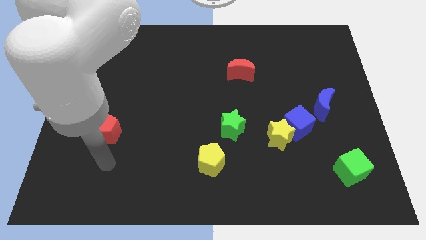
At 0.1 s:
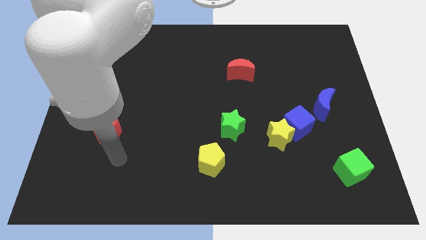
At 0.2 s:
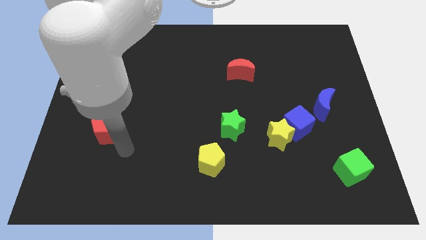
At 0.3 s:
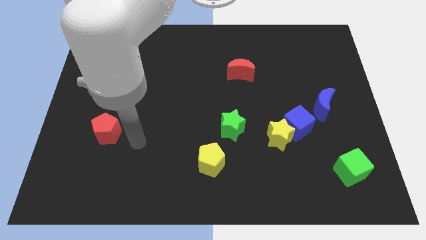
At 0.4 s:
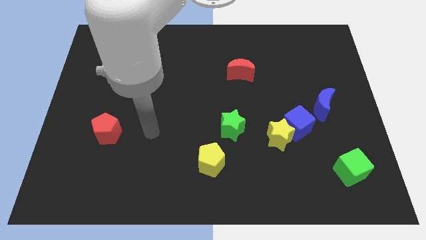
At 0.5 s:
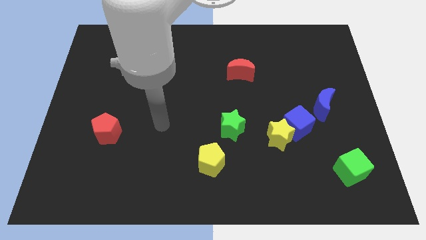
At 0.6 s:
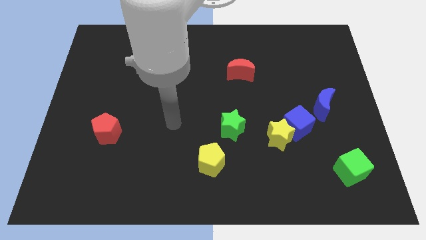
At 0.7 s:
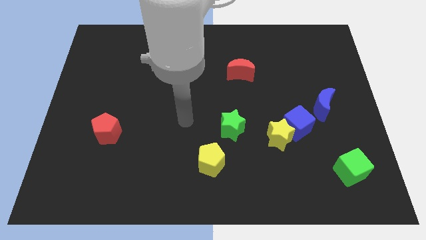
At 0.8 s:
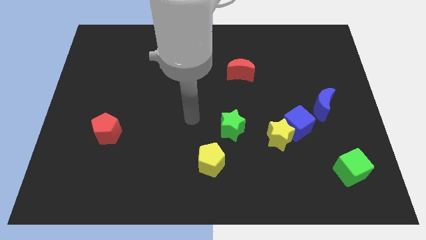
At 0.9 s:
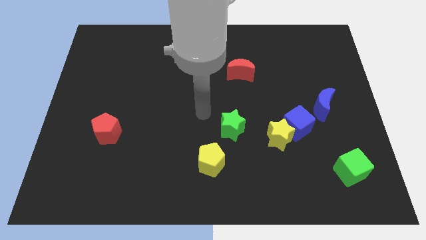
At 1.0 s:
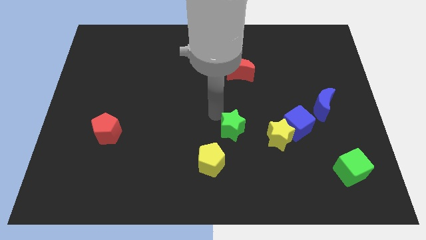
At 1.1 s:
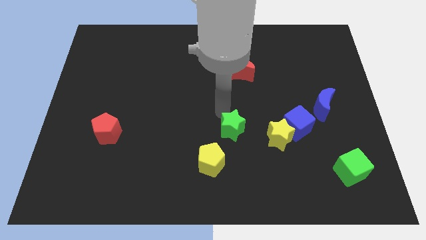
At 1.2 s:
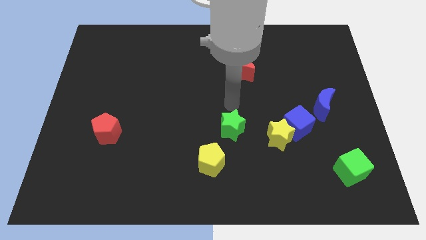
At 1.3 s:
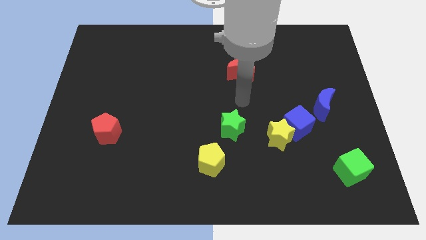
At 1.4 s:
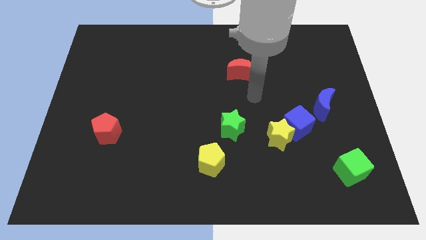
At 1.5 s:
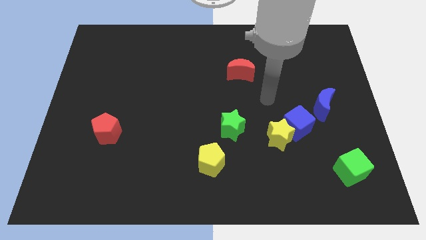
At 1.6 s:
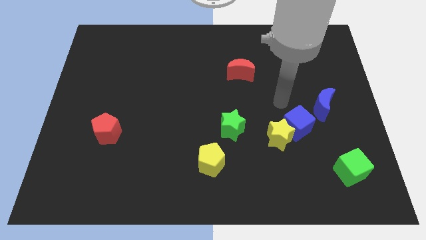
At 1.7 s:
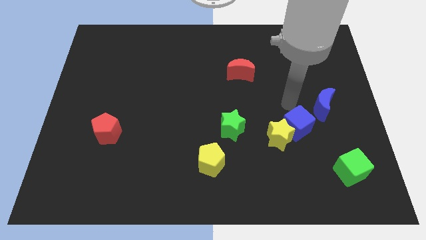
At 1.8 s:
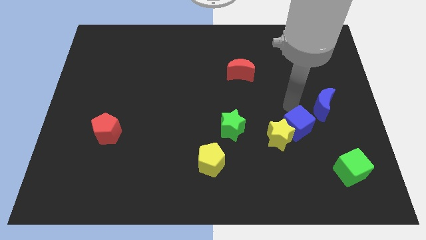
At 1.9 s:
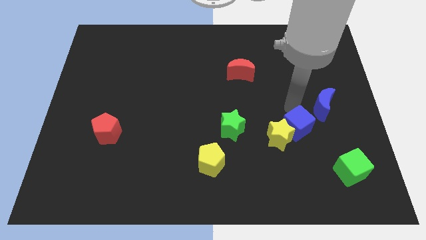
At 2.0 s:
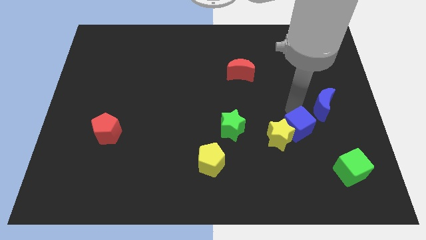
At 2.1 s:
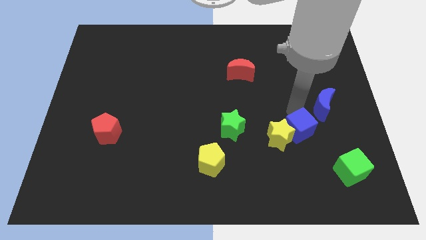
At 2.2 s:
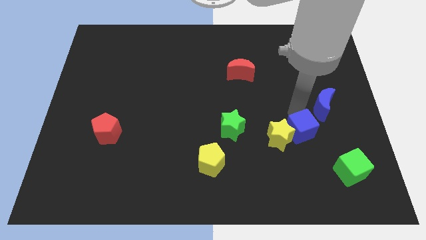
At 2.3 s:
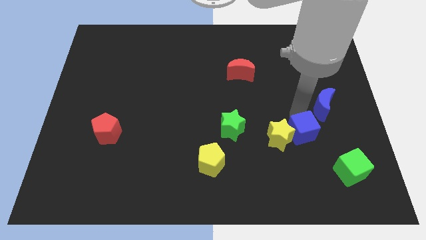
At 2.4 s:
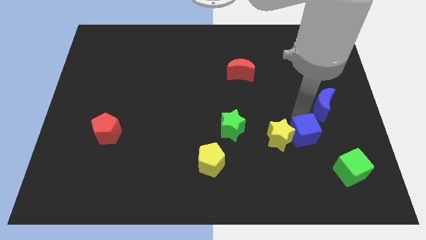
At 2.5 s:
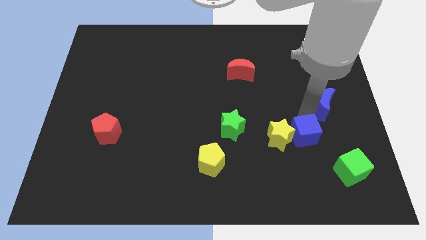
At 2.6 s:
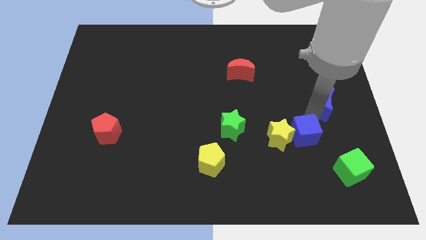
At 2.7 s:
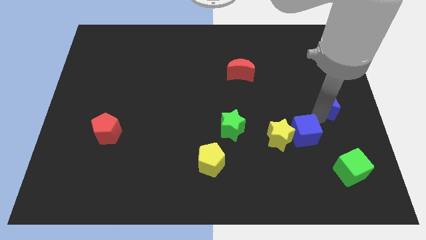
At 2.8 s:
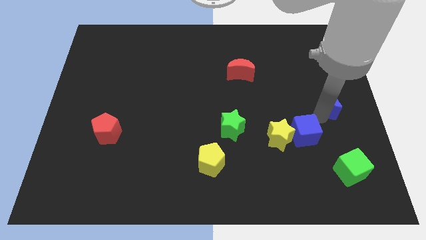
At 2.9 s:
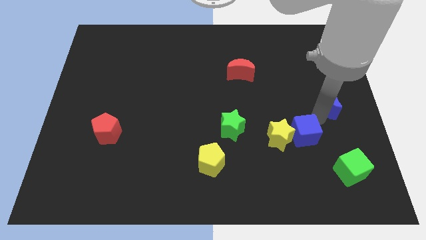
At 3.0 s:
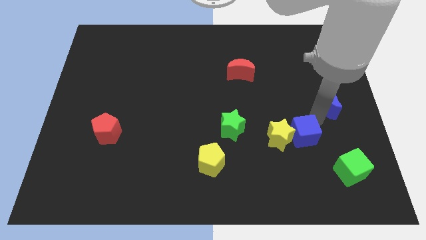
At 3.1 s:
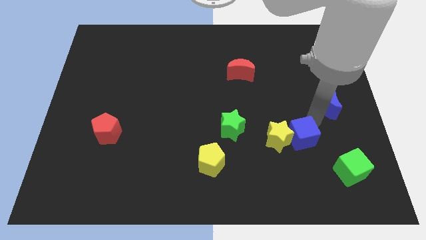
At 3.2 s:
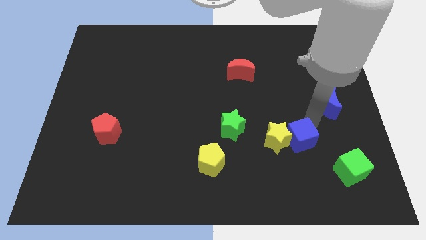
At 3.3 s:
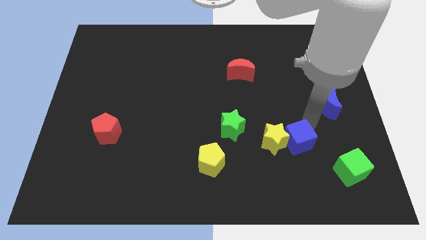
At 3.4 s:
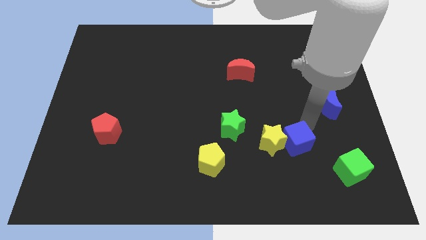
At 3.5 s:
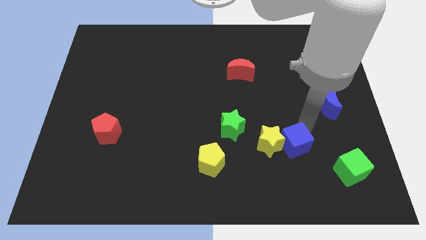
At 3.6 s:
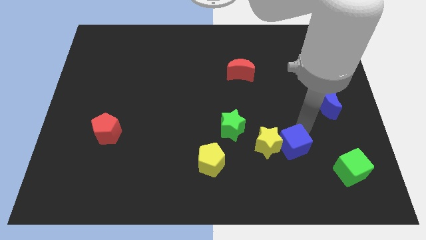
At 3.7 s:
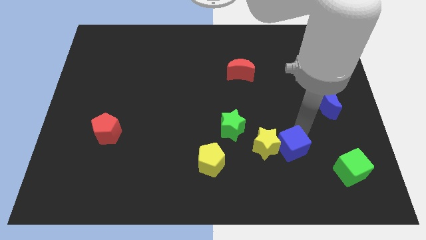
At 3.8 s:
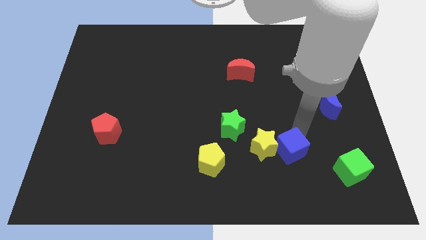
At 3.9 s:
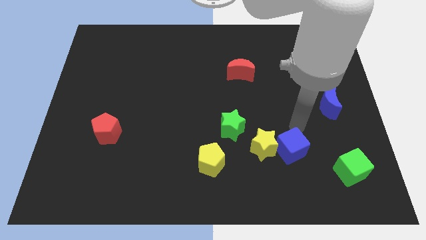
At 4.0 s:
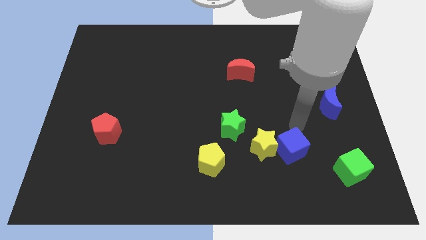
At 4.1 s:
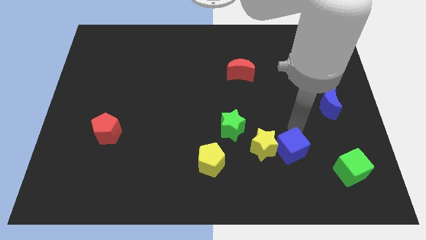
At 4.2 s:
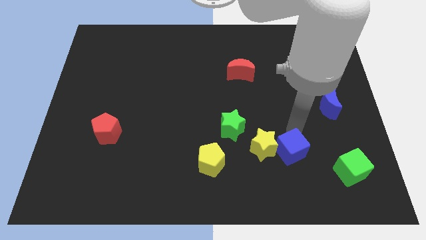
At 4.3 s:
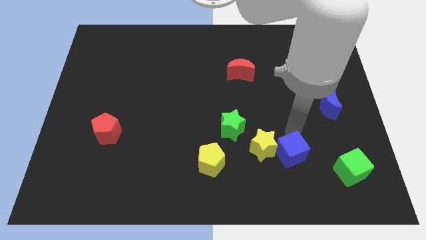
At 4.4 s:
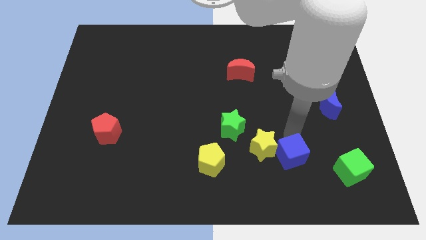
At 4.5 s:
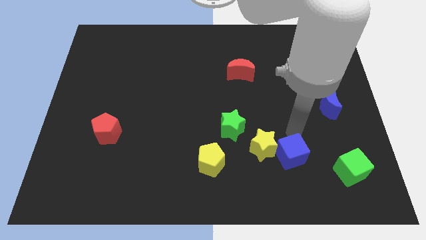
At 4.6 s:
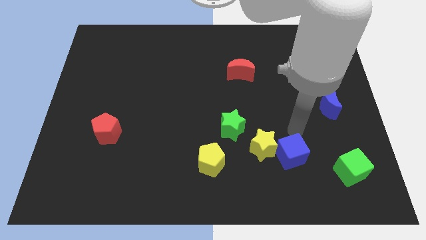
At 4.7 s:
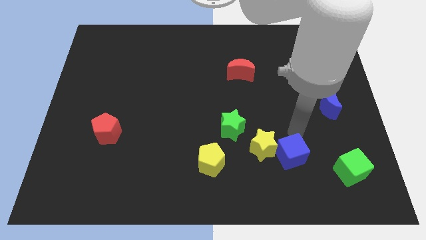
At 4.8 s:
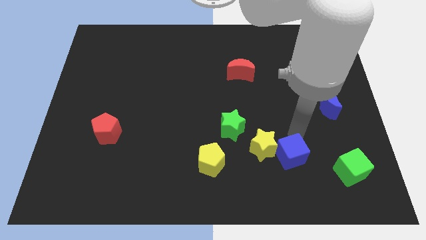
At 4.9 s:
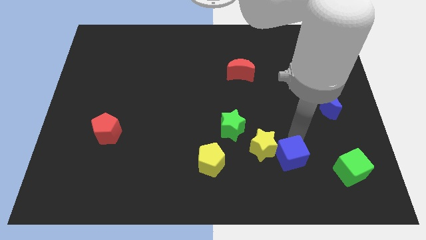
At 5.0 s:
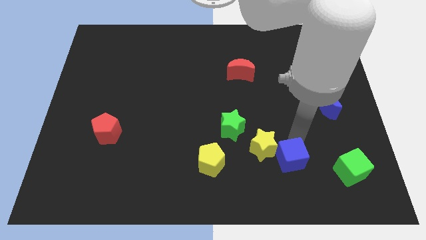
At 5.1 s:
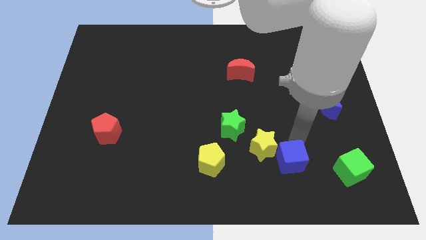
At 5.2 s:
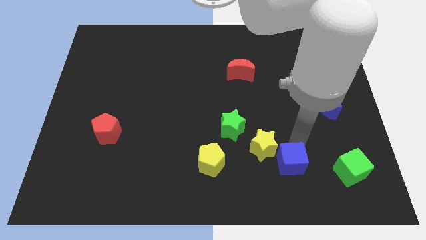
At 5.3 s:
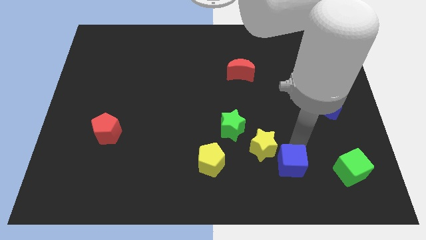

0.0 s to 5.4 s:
move the blue cube away from the yellow star and blue moon

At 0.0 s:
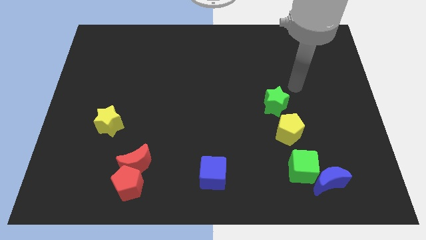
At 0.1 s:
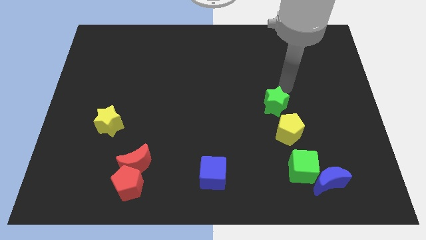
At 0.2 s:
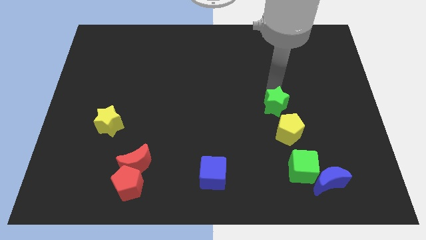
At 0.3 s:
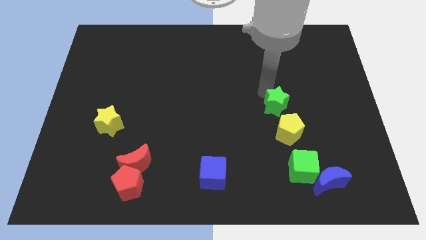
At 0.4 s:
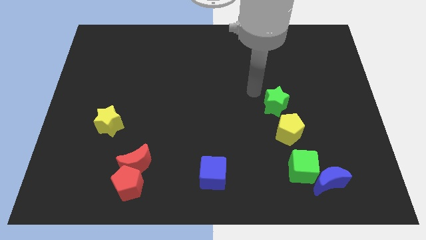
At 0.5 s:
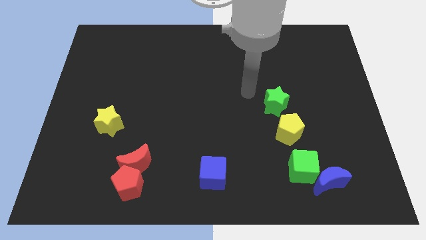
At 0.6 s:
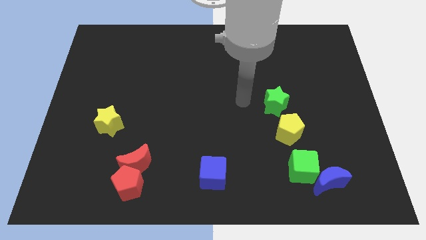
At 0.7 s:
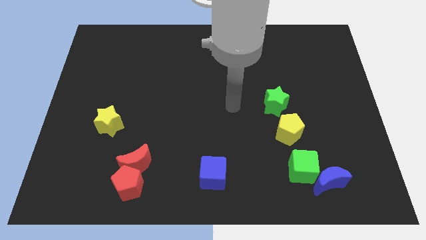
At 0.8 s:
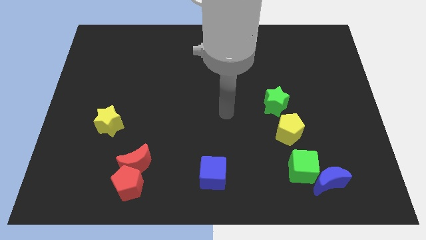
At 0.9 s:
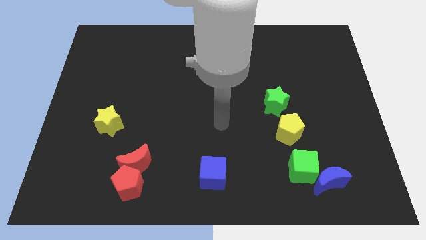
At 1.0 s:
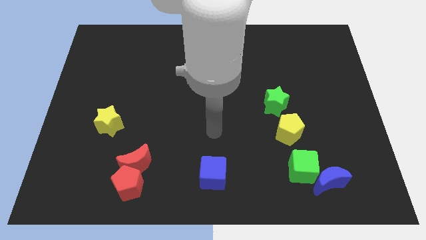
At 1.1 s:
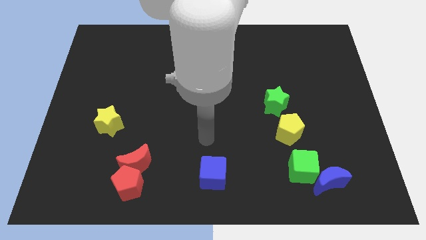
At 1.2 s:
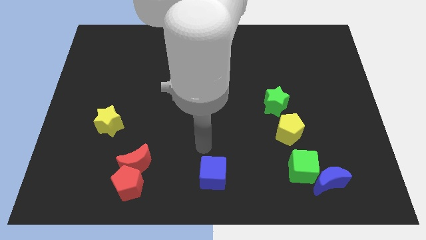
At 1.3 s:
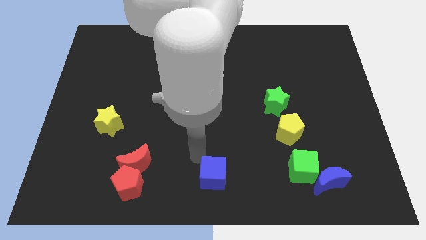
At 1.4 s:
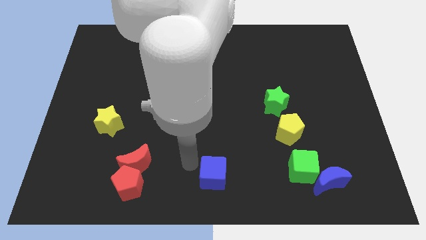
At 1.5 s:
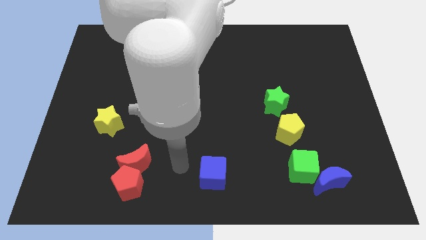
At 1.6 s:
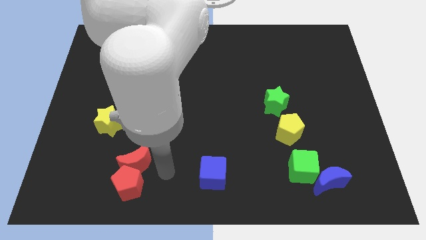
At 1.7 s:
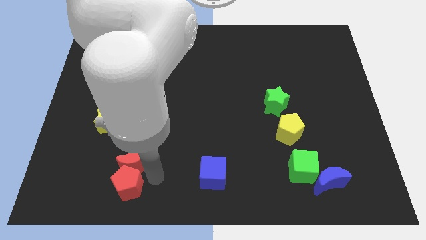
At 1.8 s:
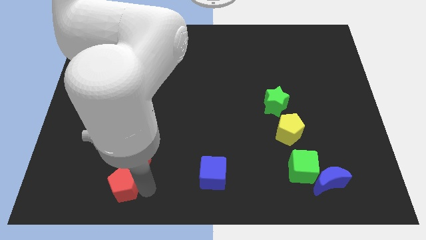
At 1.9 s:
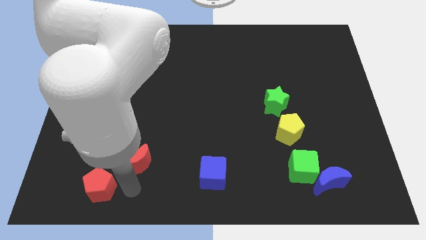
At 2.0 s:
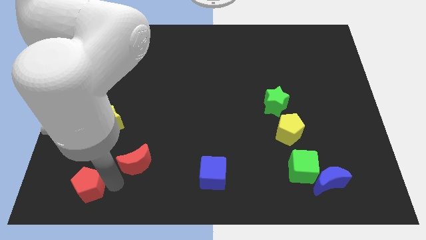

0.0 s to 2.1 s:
separate the red moon from the red pentagon

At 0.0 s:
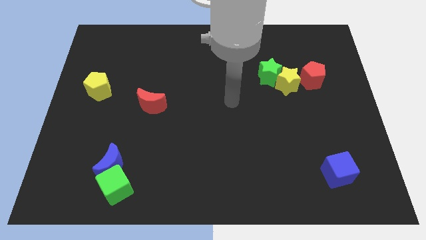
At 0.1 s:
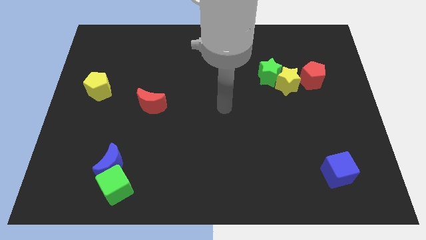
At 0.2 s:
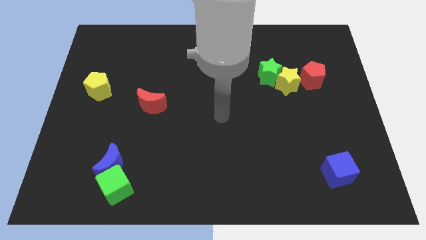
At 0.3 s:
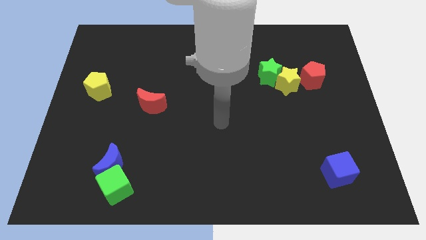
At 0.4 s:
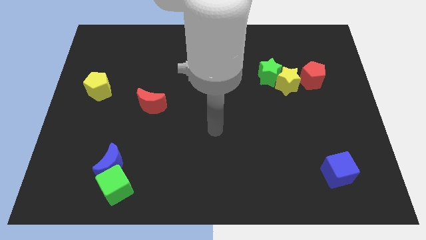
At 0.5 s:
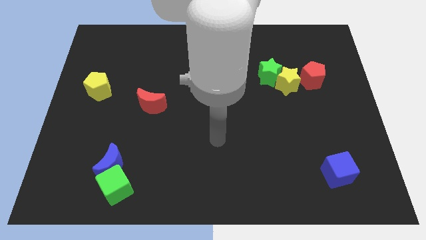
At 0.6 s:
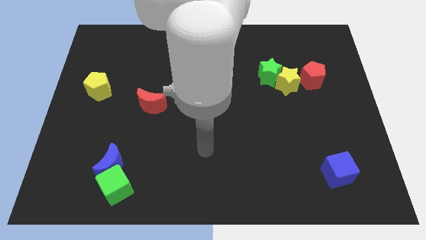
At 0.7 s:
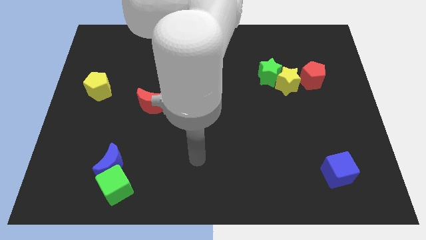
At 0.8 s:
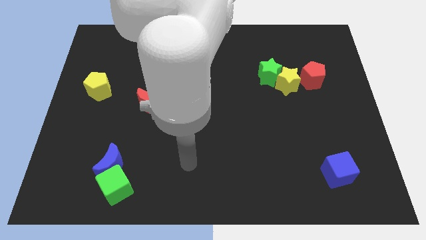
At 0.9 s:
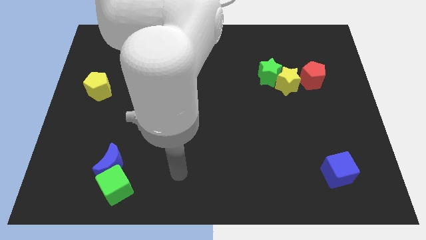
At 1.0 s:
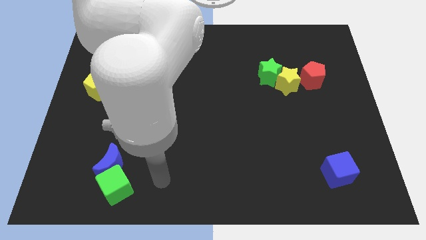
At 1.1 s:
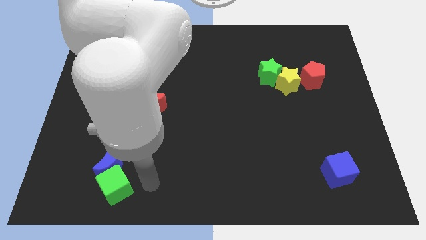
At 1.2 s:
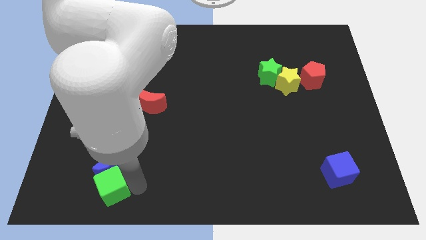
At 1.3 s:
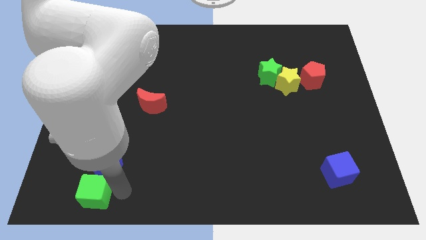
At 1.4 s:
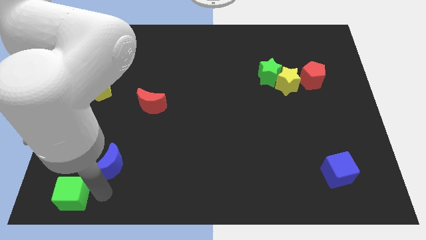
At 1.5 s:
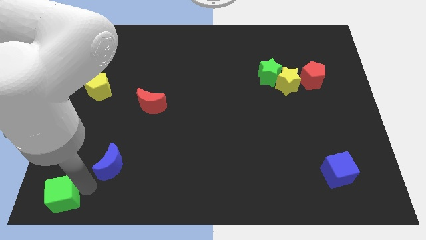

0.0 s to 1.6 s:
pull the blue moon apart from the green cube

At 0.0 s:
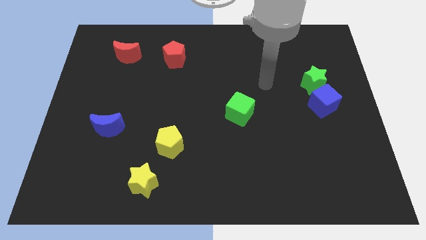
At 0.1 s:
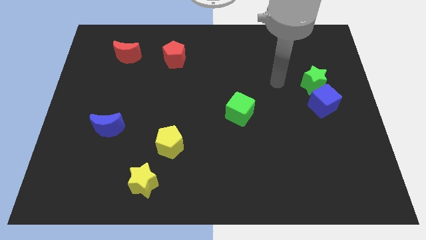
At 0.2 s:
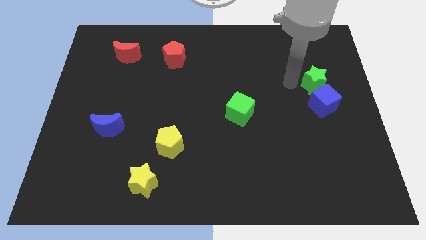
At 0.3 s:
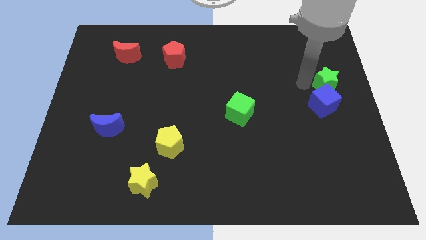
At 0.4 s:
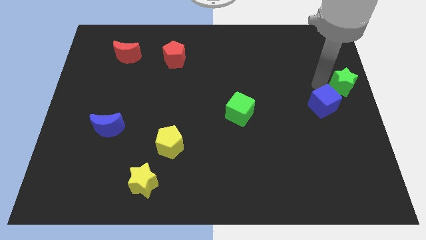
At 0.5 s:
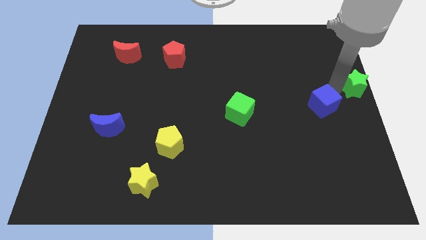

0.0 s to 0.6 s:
separate the blue cube from the green star
